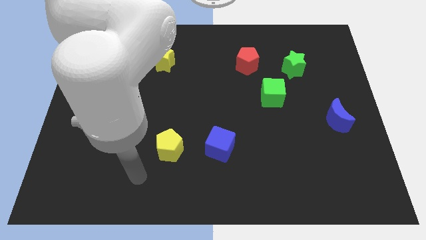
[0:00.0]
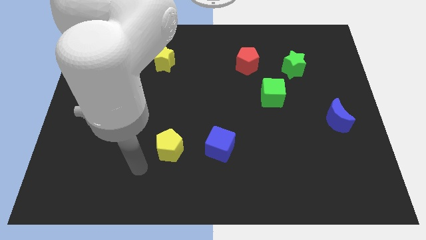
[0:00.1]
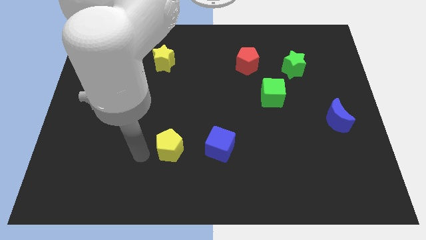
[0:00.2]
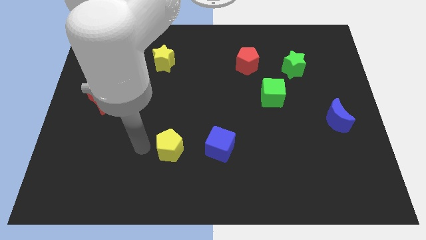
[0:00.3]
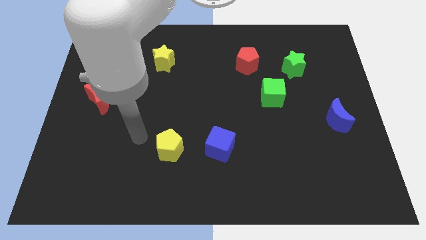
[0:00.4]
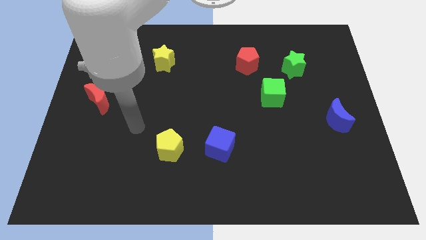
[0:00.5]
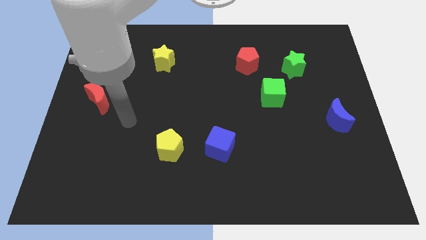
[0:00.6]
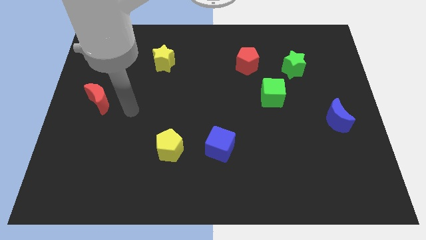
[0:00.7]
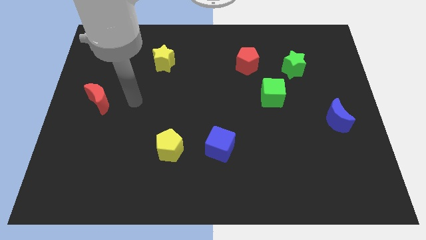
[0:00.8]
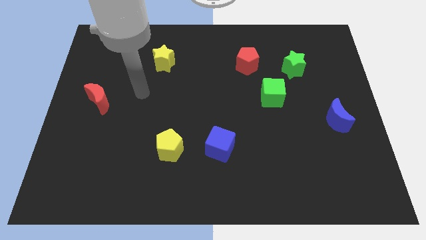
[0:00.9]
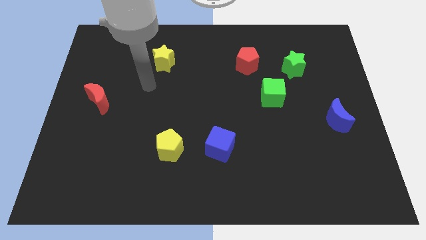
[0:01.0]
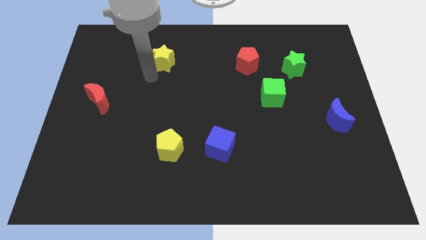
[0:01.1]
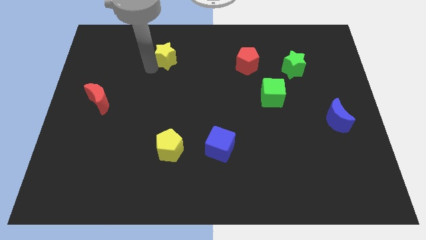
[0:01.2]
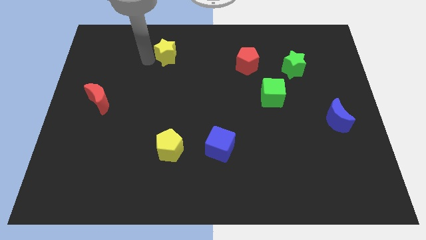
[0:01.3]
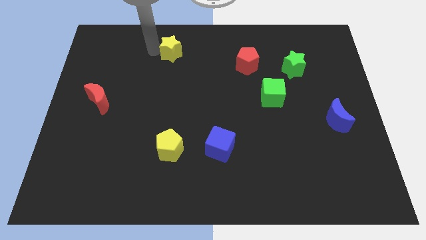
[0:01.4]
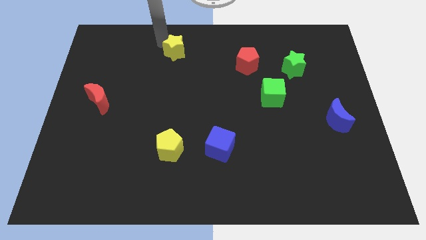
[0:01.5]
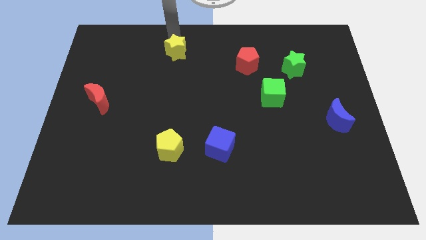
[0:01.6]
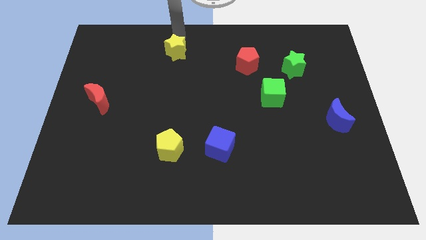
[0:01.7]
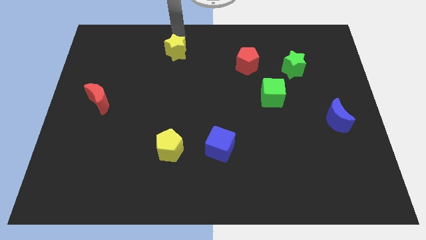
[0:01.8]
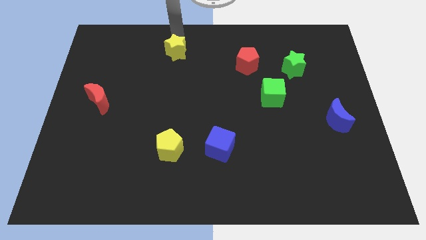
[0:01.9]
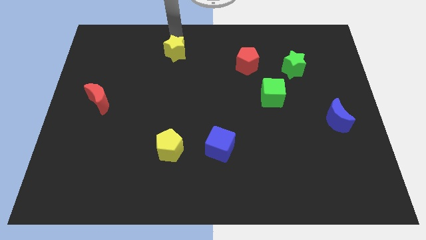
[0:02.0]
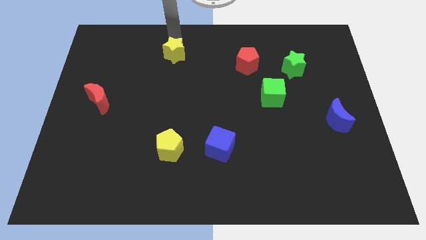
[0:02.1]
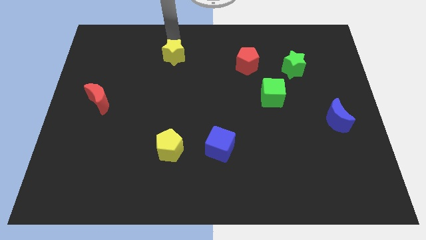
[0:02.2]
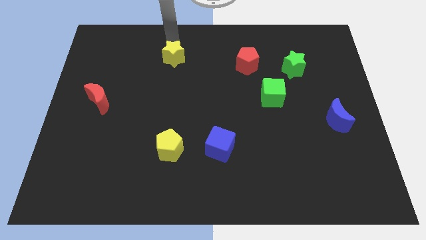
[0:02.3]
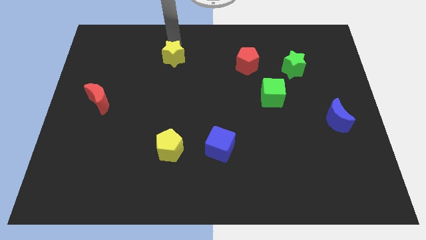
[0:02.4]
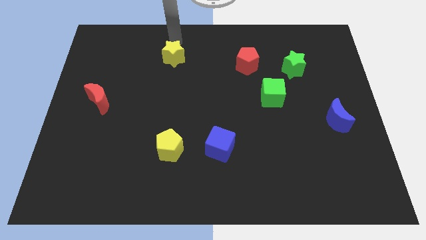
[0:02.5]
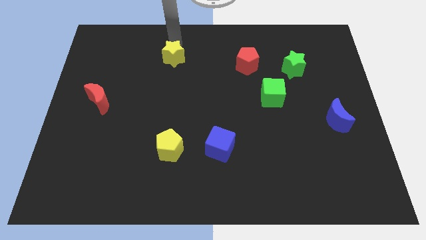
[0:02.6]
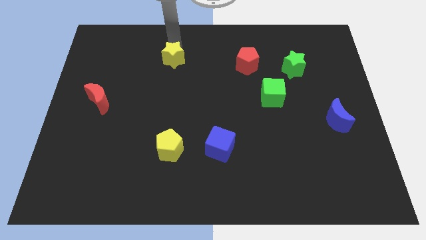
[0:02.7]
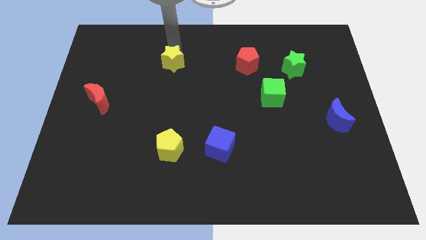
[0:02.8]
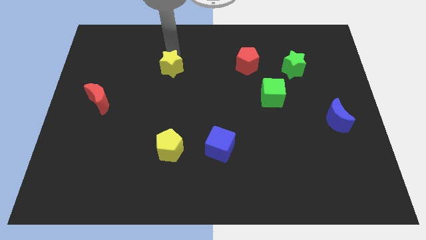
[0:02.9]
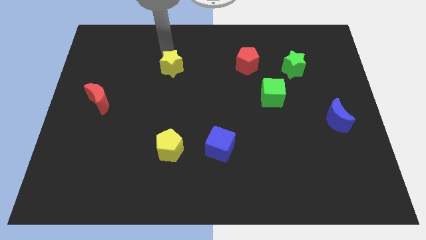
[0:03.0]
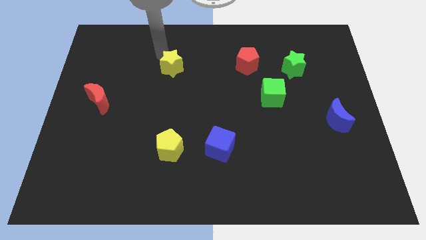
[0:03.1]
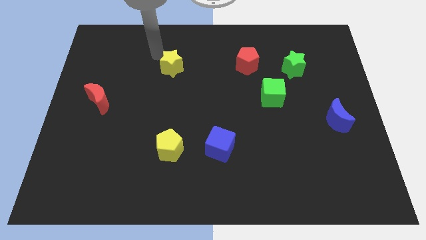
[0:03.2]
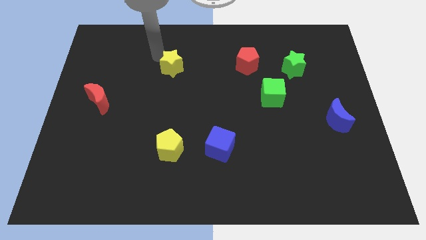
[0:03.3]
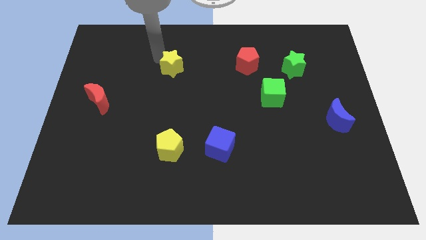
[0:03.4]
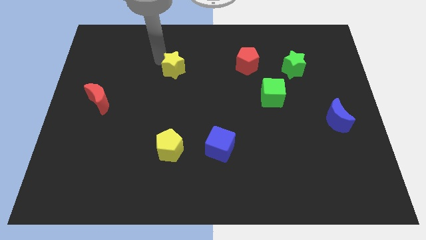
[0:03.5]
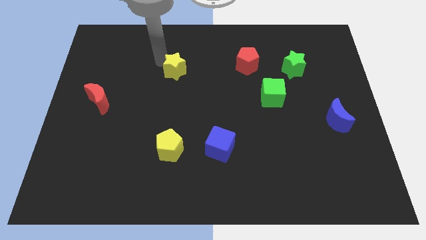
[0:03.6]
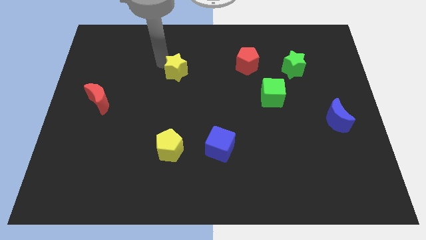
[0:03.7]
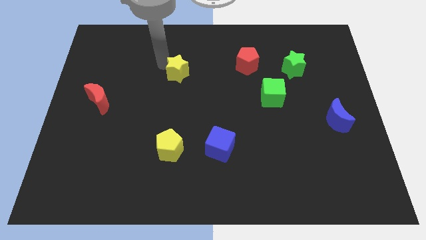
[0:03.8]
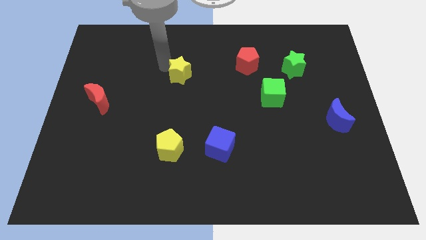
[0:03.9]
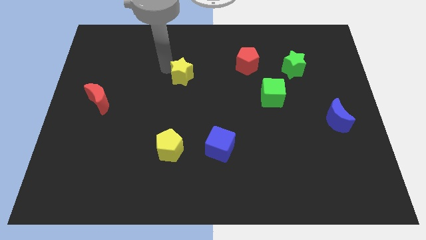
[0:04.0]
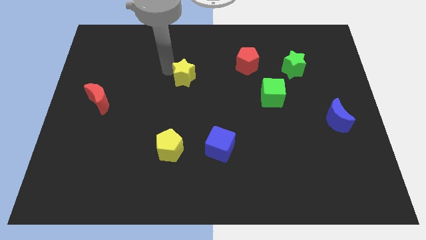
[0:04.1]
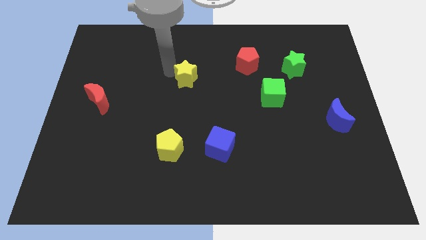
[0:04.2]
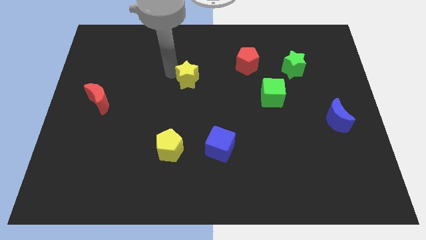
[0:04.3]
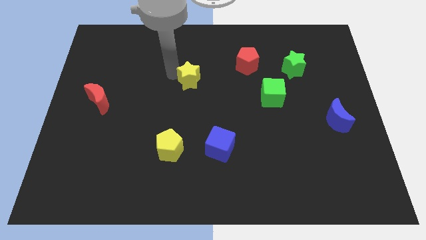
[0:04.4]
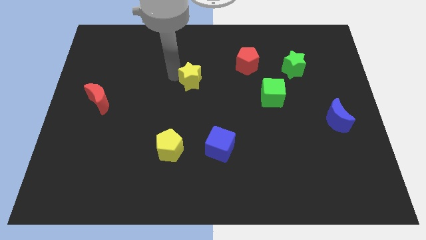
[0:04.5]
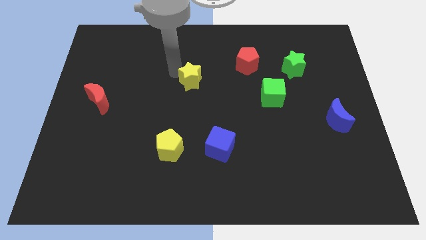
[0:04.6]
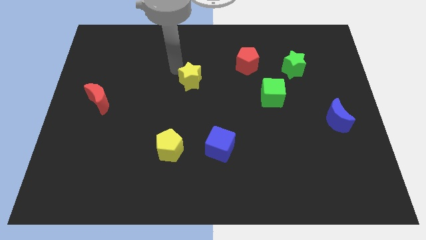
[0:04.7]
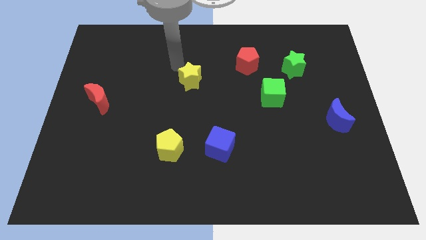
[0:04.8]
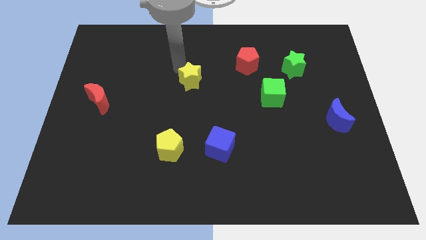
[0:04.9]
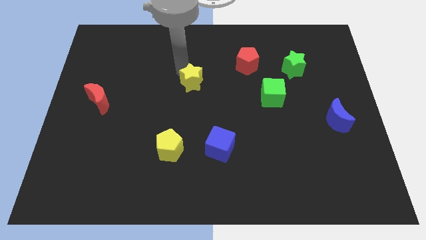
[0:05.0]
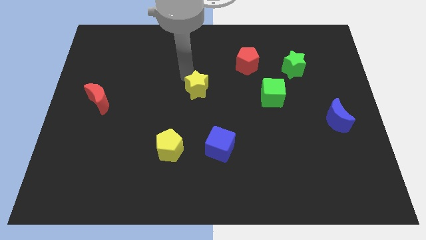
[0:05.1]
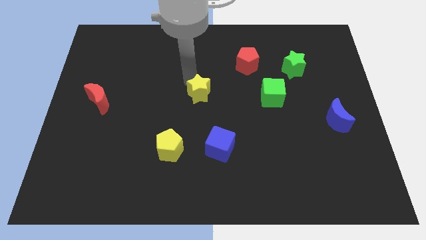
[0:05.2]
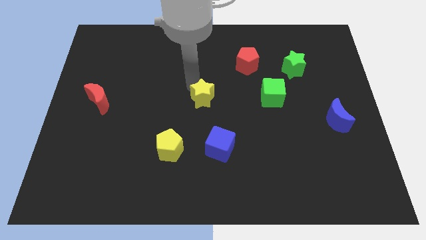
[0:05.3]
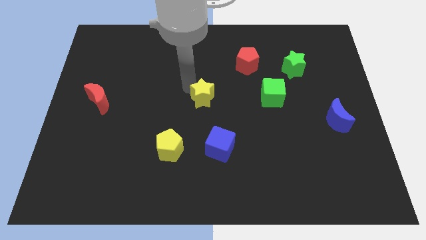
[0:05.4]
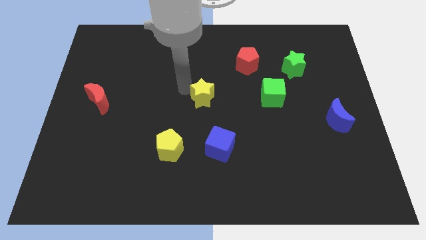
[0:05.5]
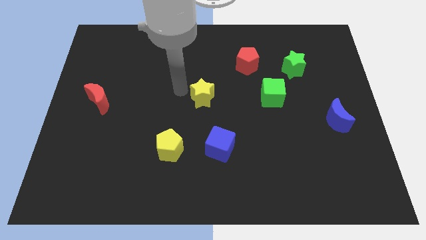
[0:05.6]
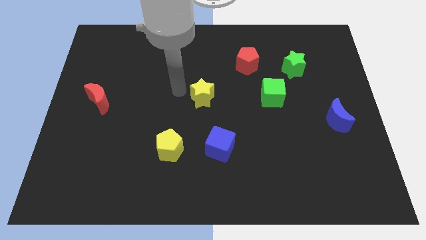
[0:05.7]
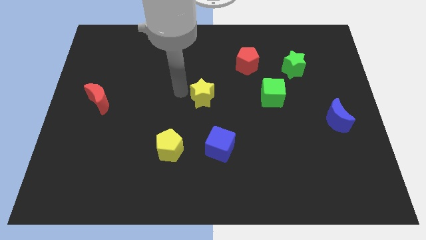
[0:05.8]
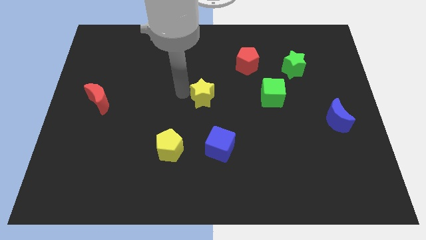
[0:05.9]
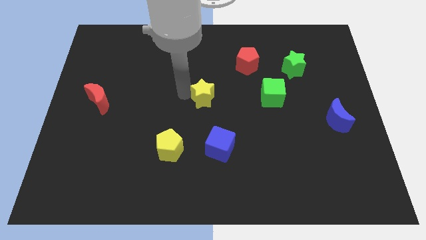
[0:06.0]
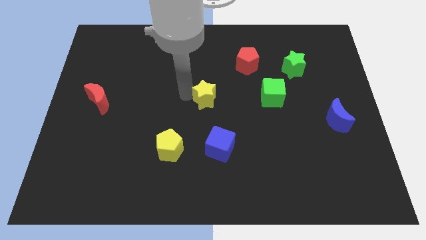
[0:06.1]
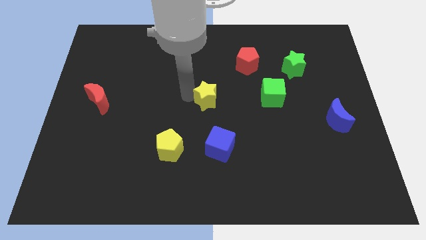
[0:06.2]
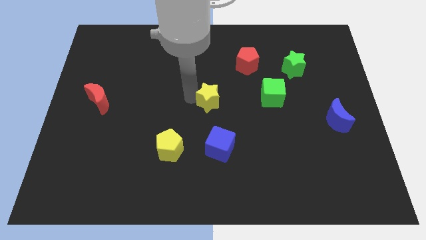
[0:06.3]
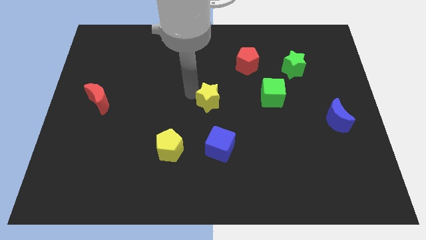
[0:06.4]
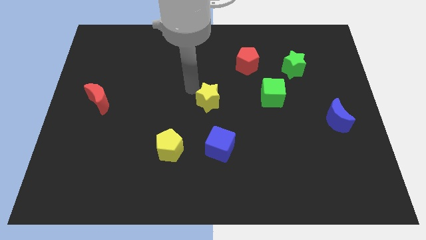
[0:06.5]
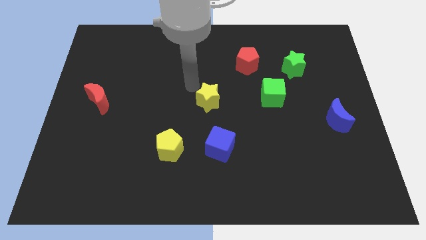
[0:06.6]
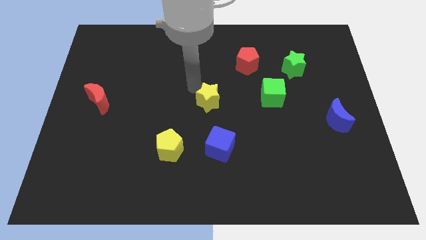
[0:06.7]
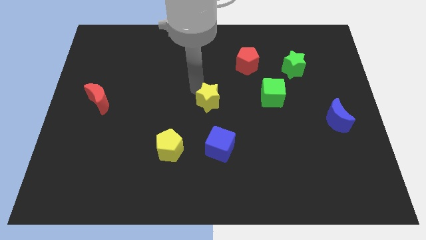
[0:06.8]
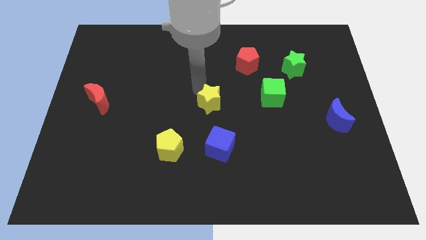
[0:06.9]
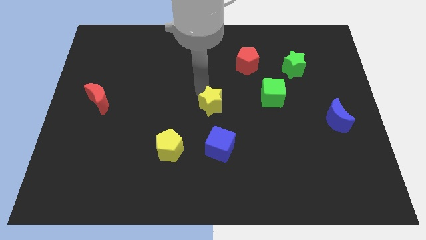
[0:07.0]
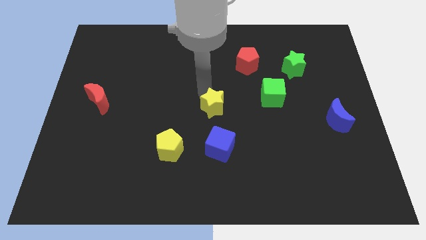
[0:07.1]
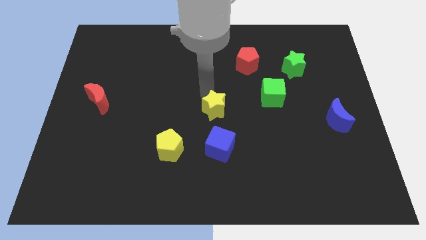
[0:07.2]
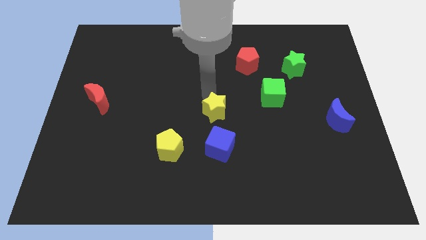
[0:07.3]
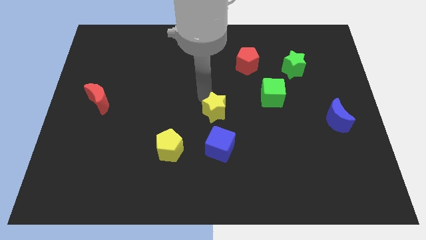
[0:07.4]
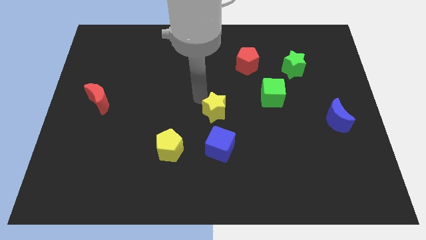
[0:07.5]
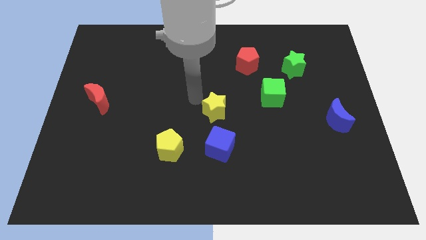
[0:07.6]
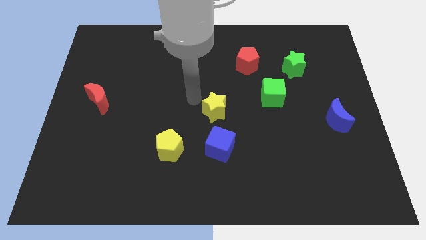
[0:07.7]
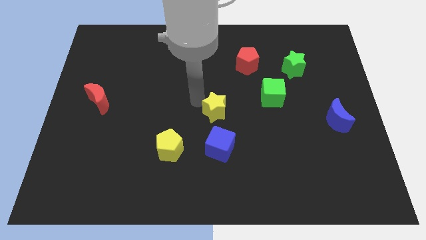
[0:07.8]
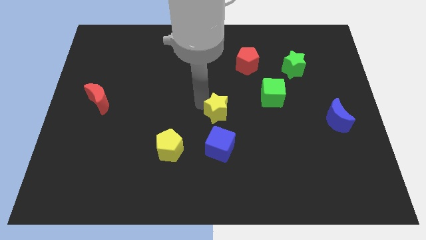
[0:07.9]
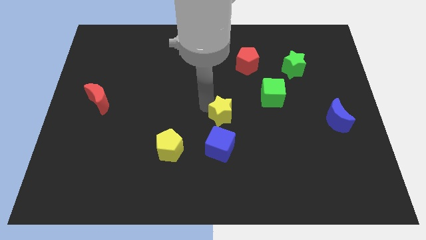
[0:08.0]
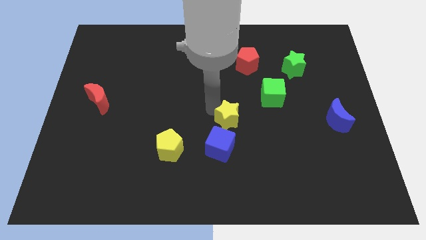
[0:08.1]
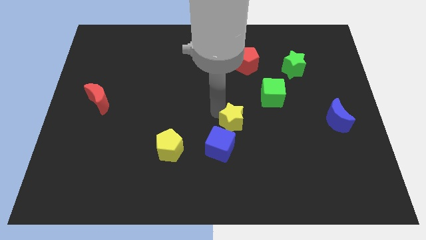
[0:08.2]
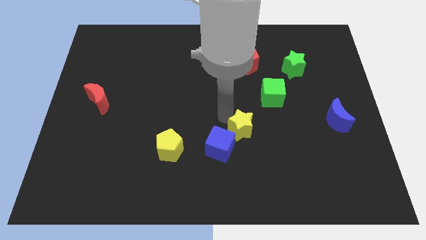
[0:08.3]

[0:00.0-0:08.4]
put the yellow star right of the blue cube
